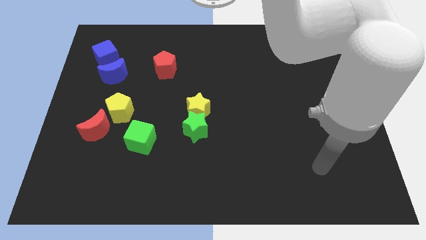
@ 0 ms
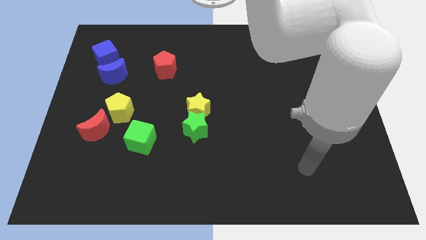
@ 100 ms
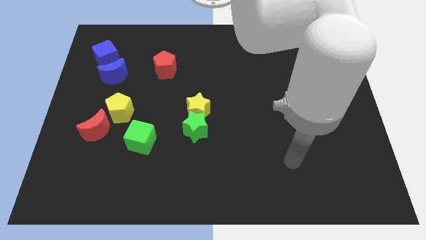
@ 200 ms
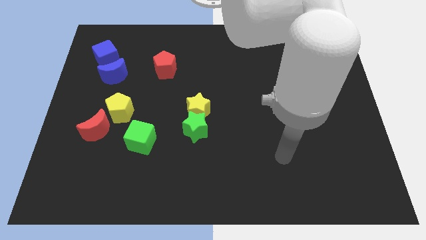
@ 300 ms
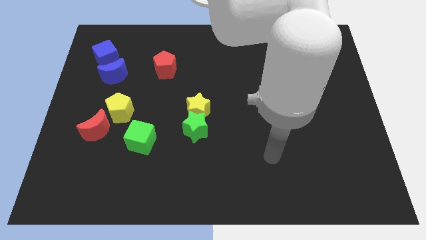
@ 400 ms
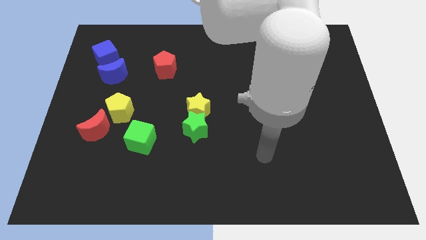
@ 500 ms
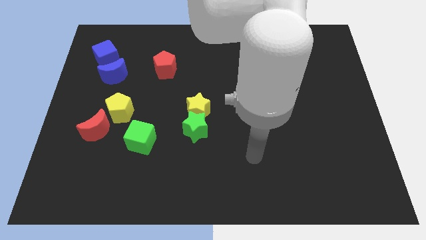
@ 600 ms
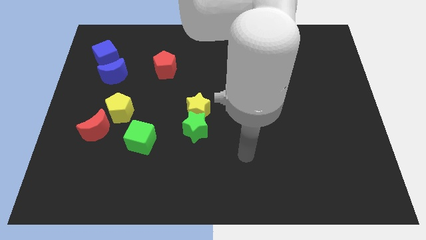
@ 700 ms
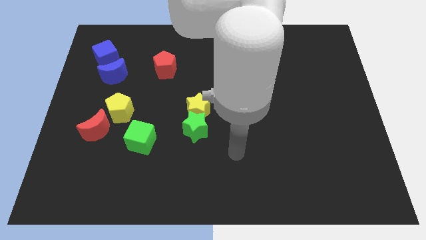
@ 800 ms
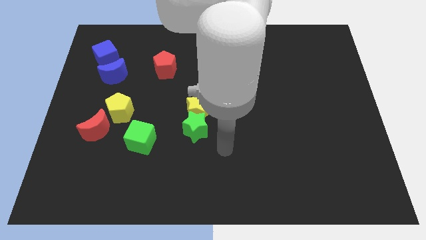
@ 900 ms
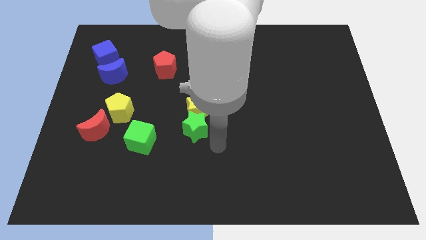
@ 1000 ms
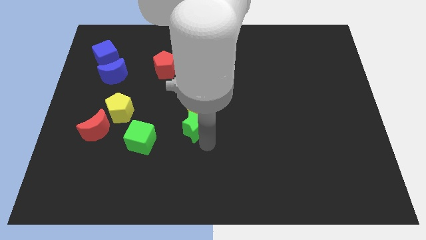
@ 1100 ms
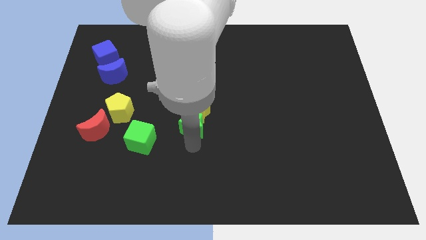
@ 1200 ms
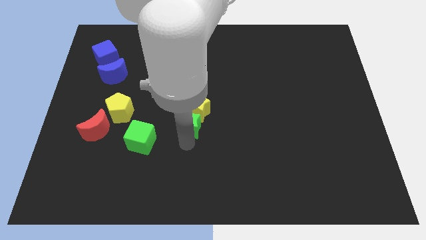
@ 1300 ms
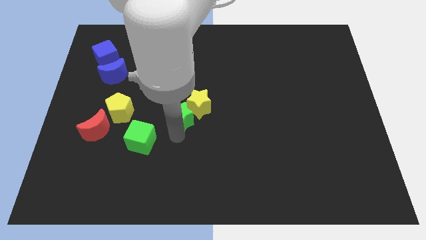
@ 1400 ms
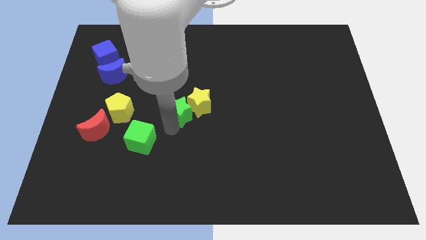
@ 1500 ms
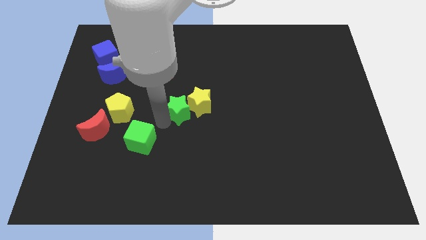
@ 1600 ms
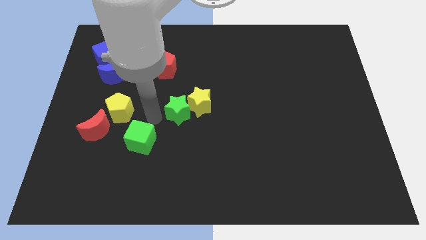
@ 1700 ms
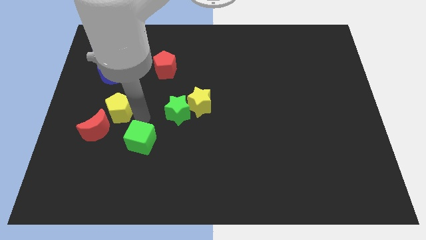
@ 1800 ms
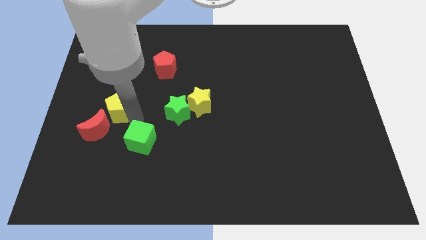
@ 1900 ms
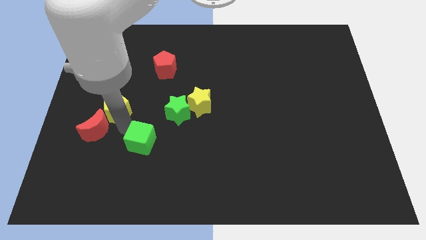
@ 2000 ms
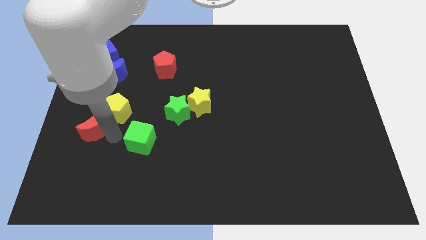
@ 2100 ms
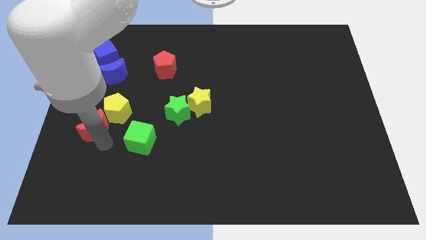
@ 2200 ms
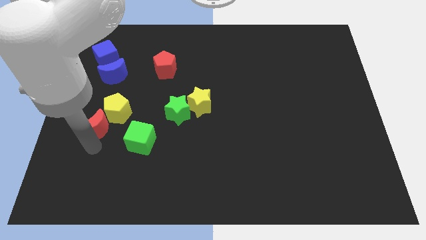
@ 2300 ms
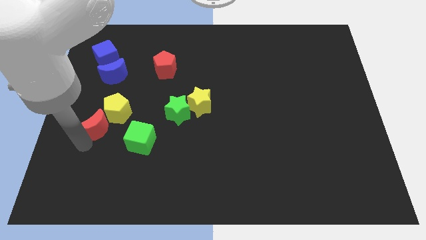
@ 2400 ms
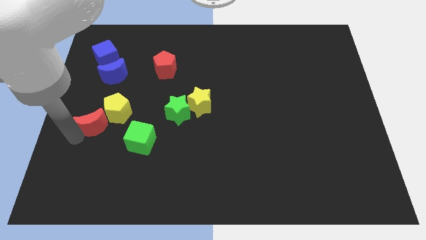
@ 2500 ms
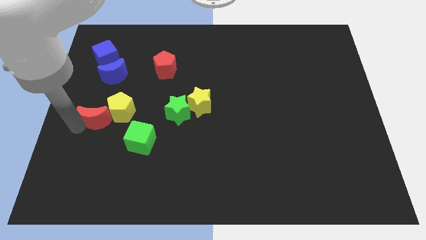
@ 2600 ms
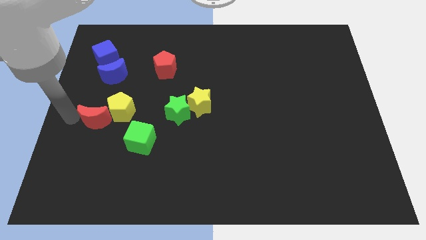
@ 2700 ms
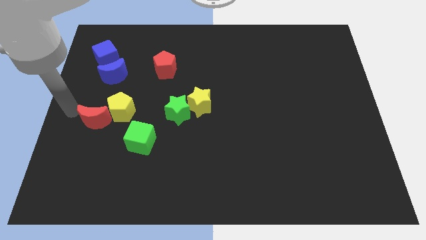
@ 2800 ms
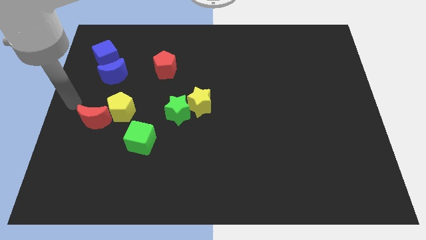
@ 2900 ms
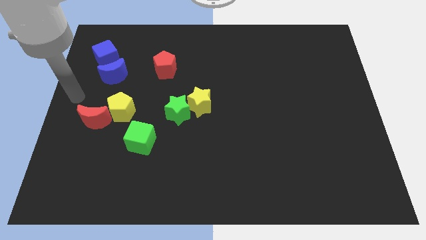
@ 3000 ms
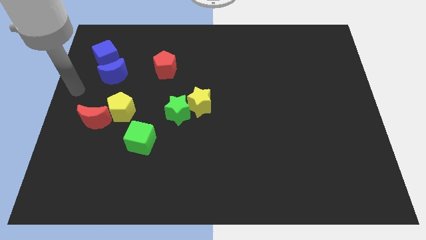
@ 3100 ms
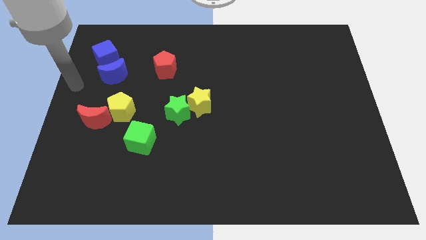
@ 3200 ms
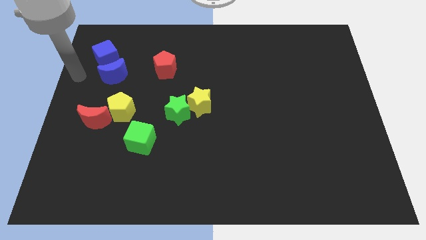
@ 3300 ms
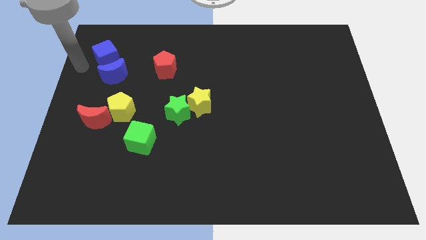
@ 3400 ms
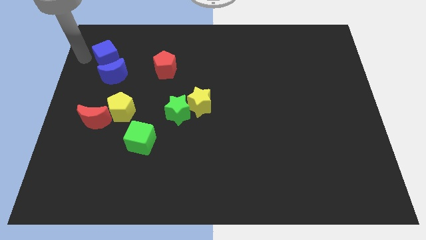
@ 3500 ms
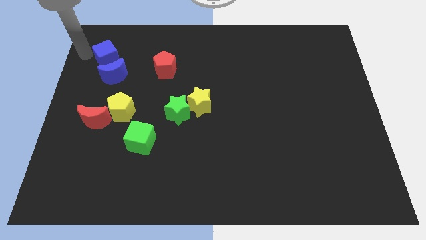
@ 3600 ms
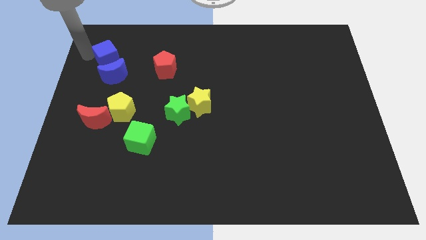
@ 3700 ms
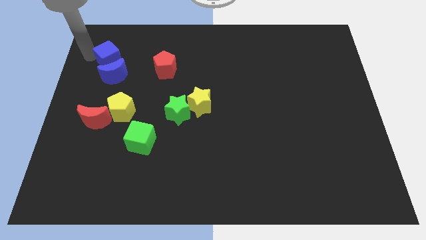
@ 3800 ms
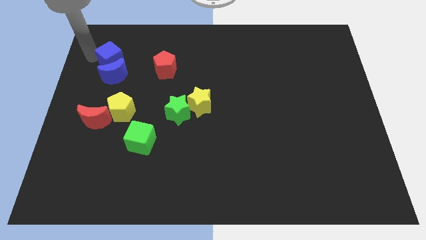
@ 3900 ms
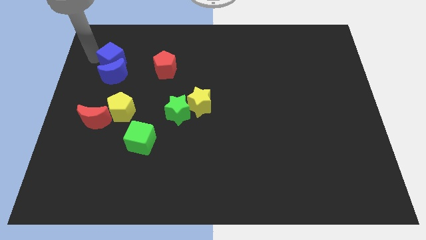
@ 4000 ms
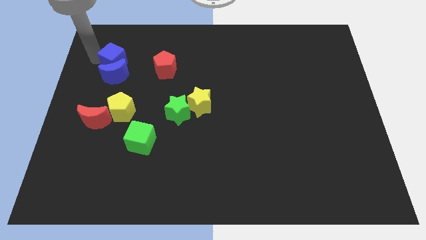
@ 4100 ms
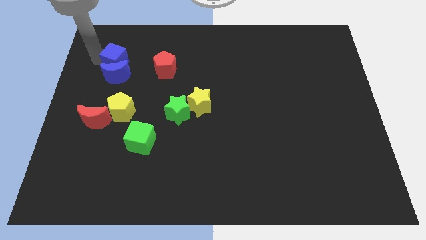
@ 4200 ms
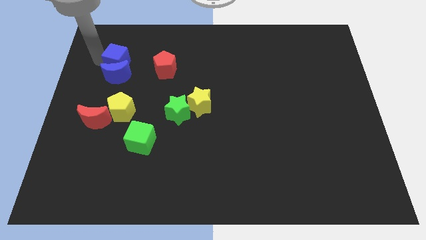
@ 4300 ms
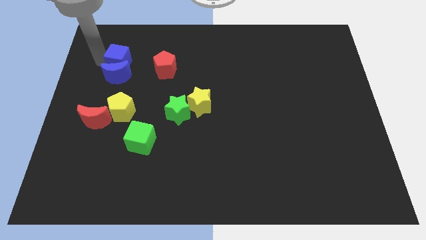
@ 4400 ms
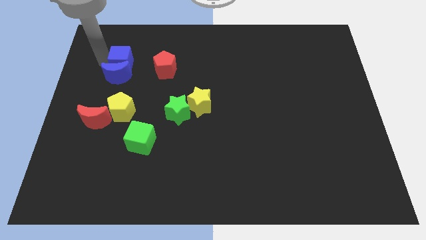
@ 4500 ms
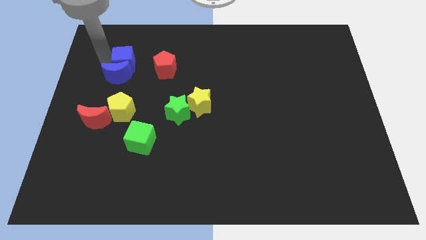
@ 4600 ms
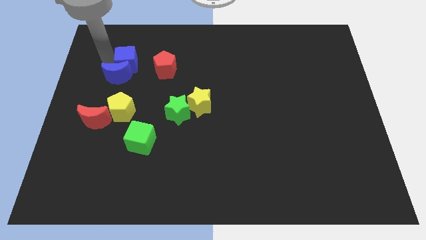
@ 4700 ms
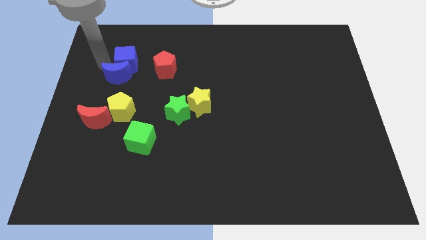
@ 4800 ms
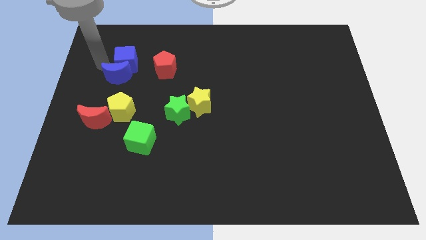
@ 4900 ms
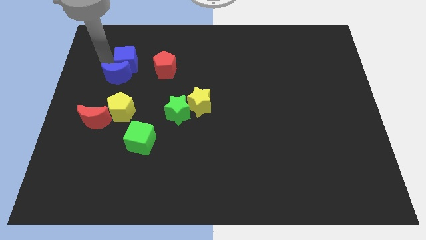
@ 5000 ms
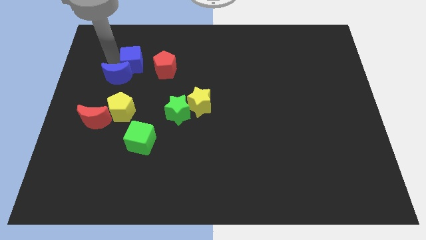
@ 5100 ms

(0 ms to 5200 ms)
slightly push the blue cube right

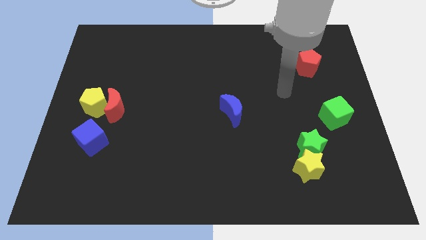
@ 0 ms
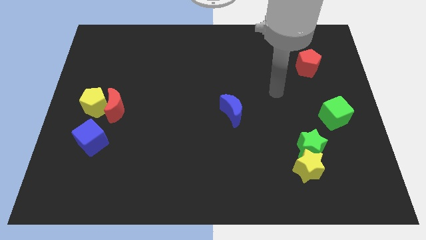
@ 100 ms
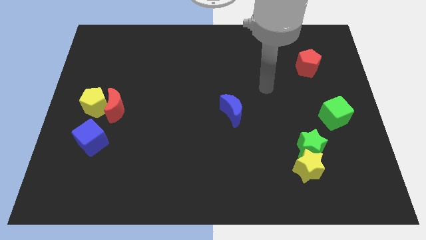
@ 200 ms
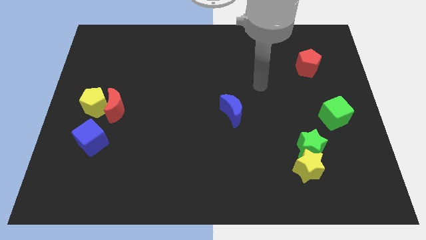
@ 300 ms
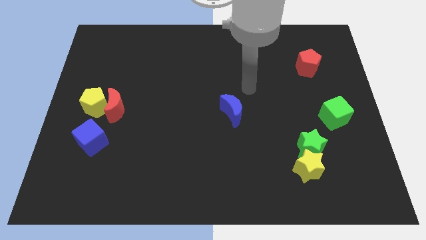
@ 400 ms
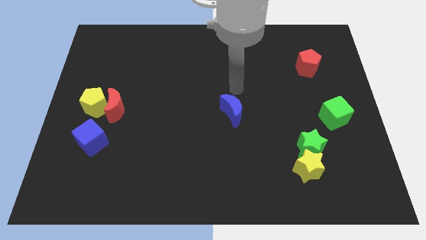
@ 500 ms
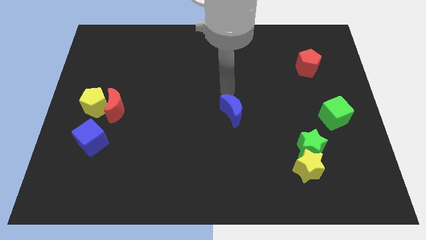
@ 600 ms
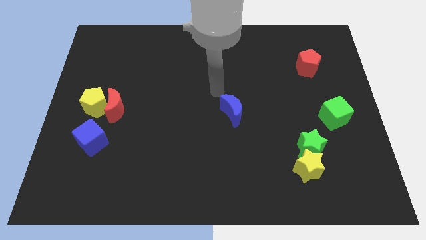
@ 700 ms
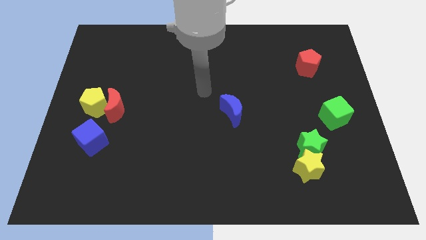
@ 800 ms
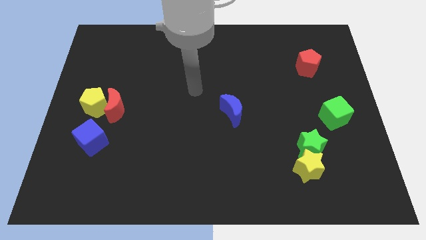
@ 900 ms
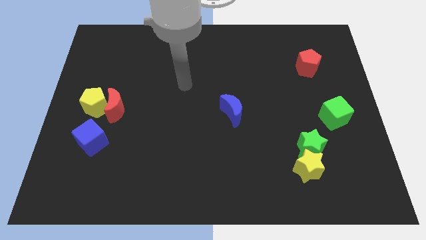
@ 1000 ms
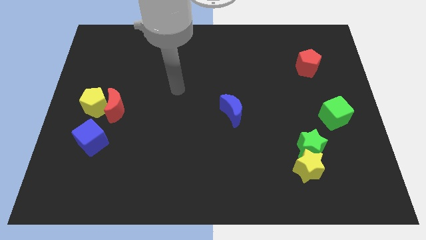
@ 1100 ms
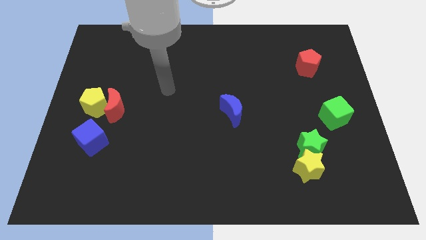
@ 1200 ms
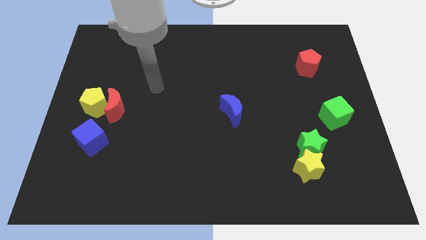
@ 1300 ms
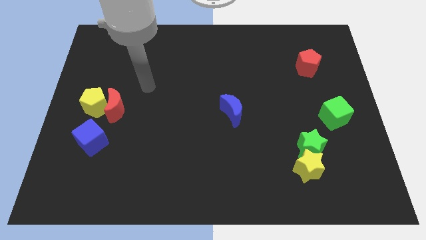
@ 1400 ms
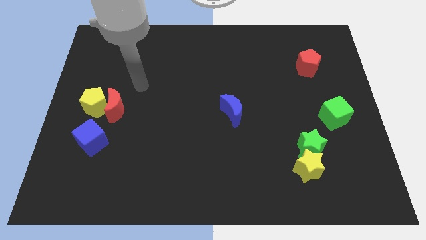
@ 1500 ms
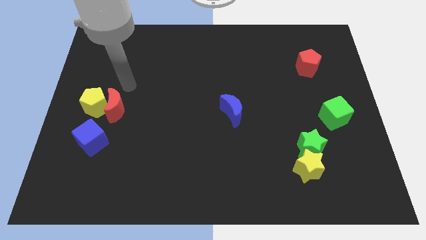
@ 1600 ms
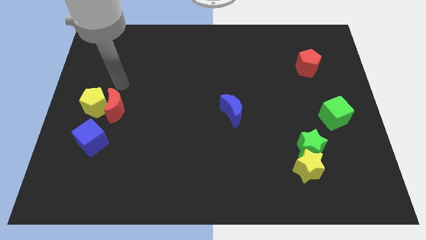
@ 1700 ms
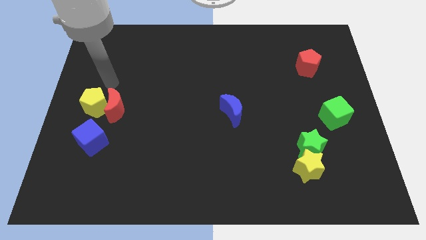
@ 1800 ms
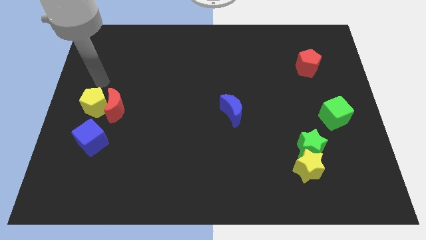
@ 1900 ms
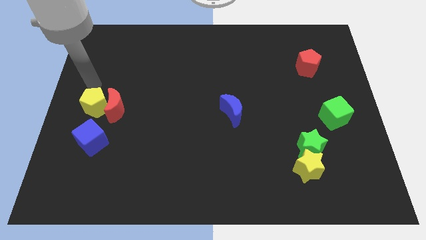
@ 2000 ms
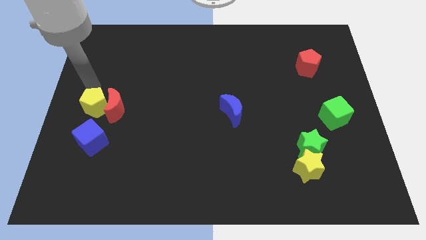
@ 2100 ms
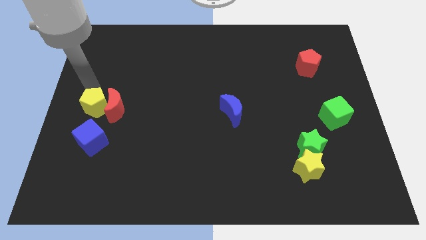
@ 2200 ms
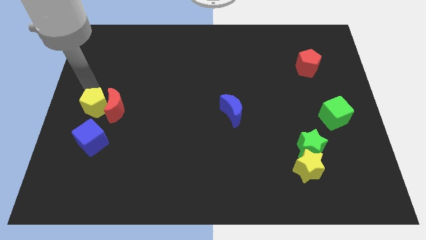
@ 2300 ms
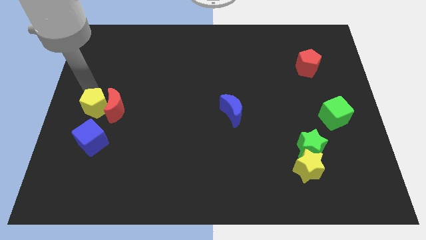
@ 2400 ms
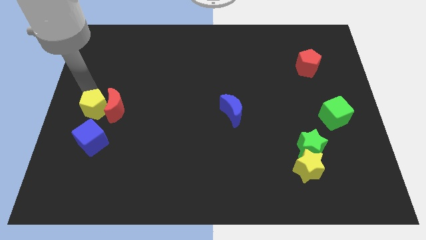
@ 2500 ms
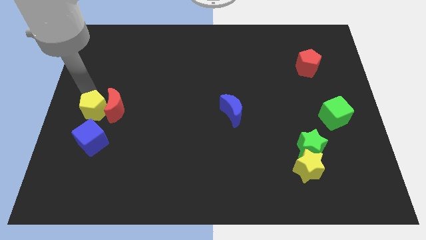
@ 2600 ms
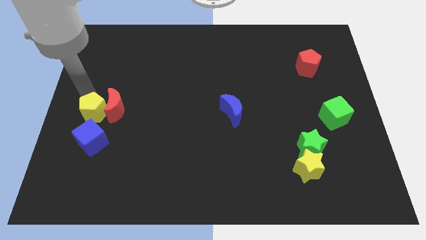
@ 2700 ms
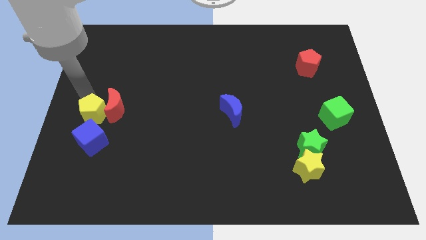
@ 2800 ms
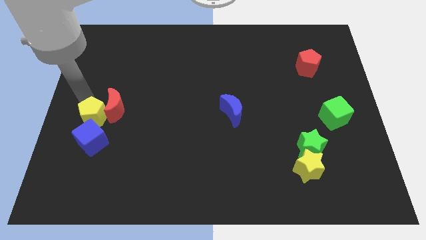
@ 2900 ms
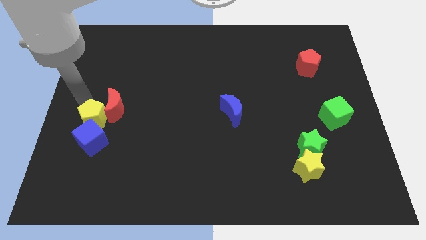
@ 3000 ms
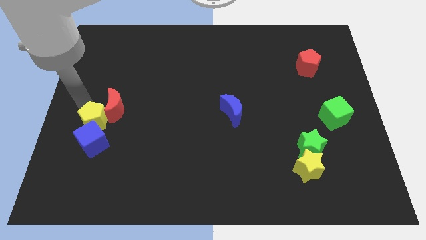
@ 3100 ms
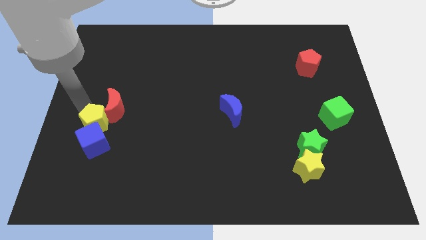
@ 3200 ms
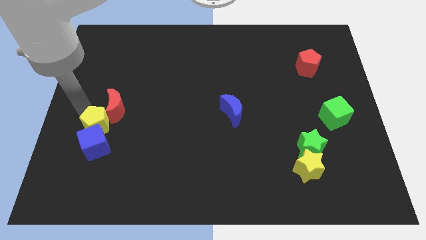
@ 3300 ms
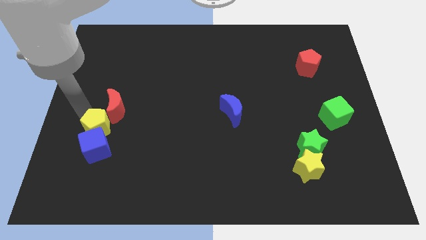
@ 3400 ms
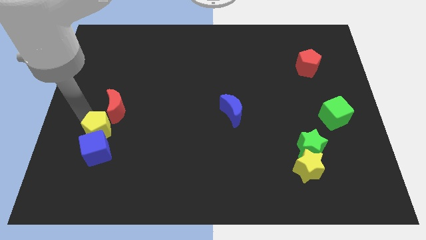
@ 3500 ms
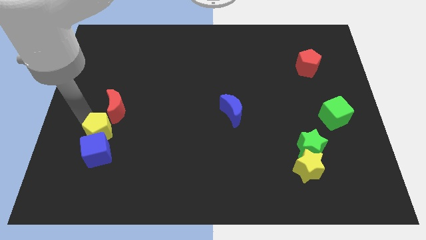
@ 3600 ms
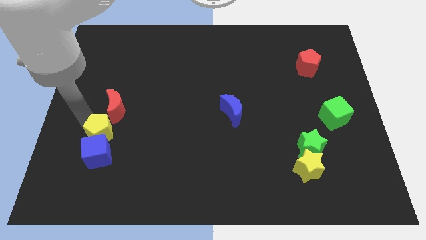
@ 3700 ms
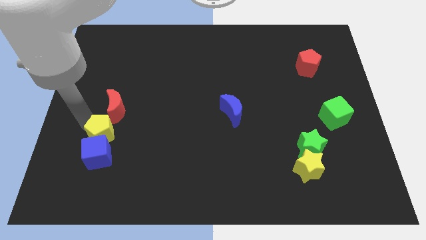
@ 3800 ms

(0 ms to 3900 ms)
slightly push the yellow pentagon downwards and right
